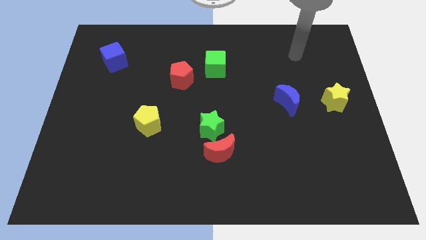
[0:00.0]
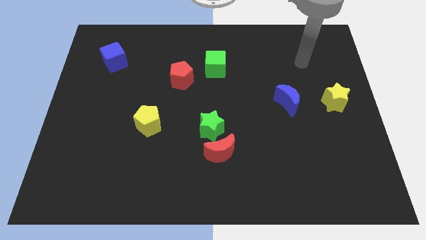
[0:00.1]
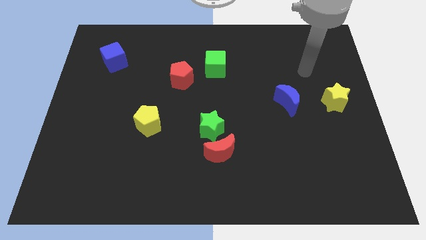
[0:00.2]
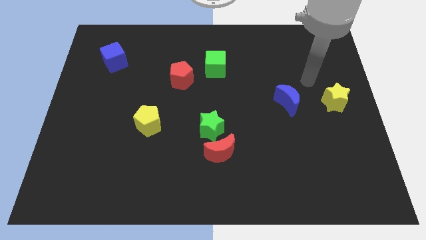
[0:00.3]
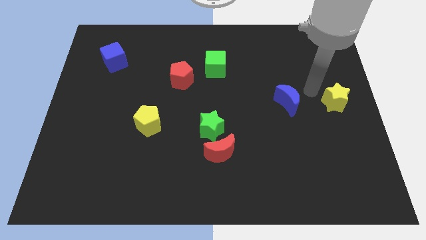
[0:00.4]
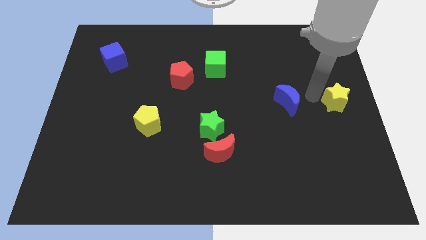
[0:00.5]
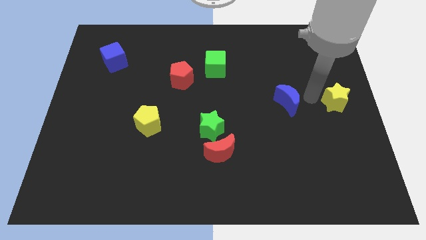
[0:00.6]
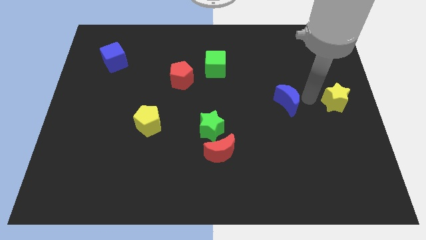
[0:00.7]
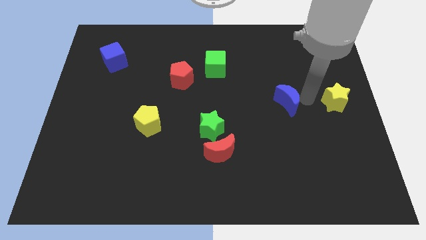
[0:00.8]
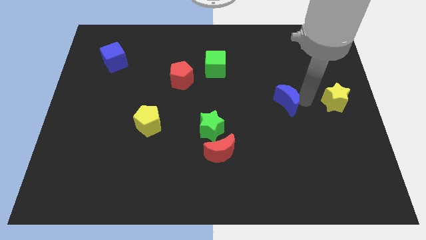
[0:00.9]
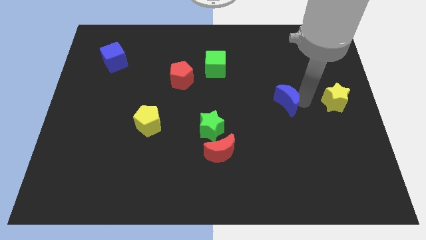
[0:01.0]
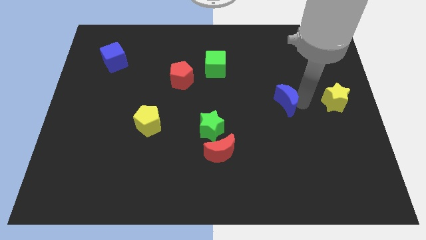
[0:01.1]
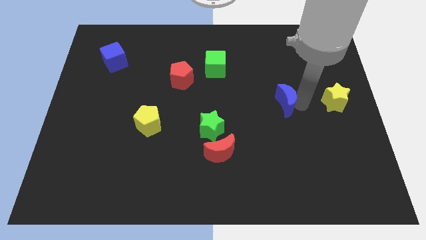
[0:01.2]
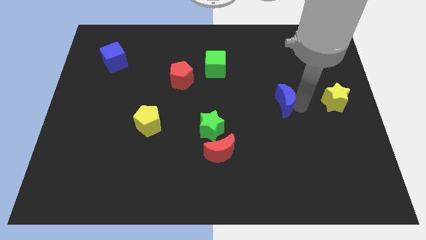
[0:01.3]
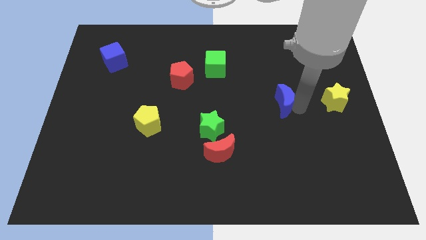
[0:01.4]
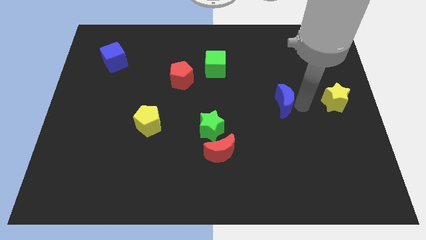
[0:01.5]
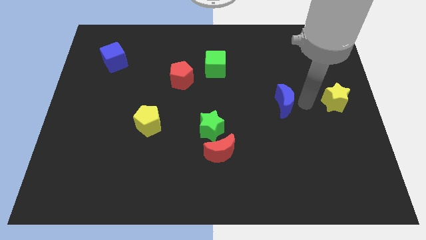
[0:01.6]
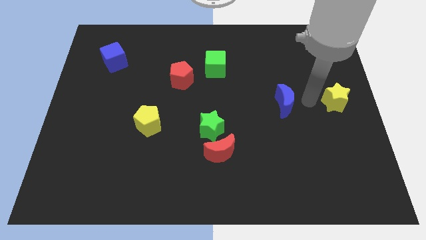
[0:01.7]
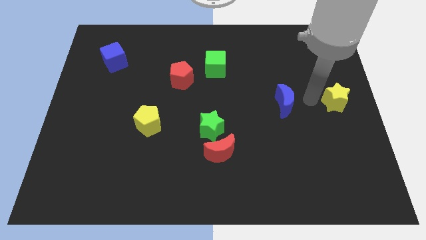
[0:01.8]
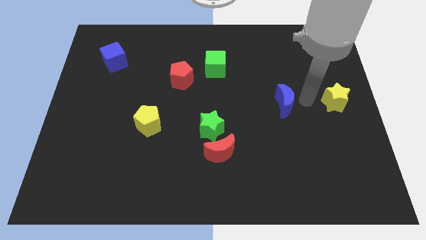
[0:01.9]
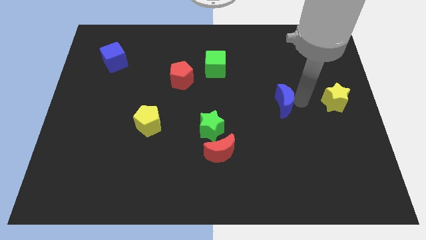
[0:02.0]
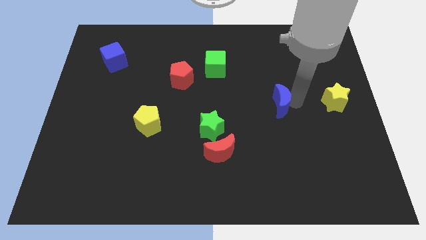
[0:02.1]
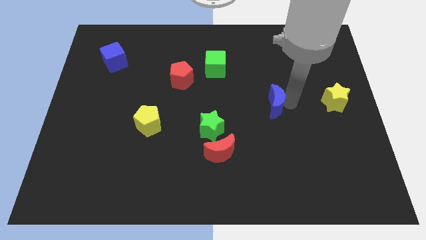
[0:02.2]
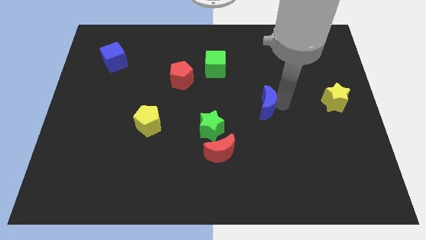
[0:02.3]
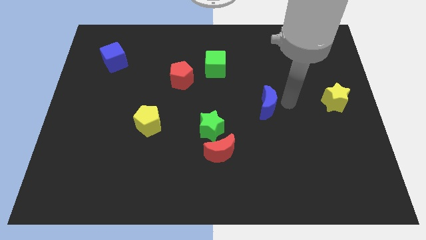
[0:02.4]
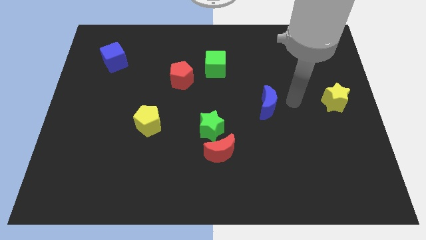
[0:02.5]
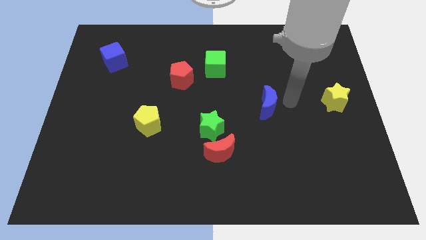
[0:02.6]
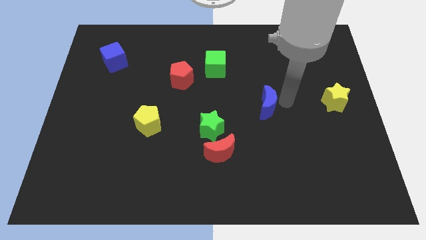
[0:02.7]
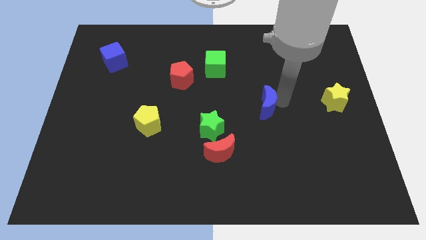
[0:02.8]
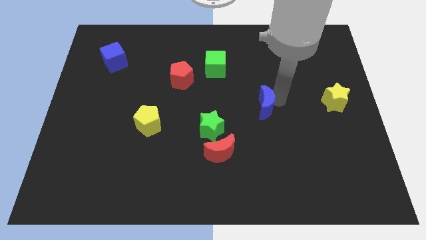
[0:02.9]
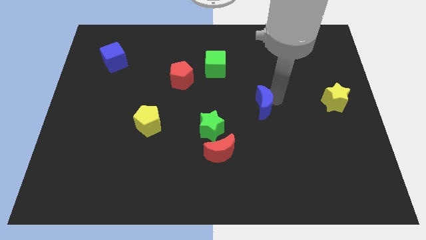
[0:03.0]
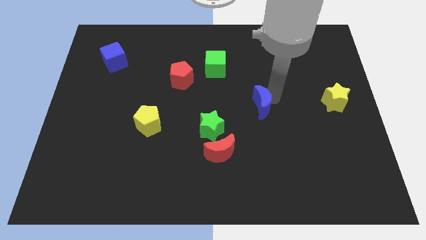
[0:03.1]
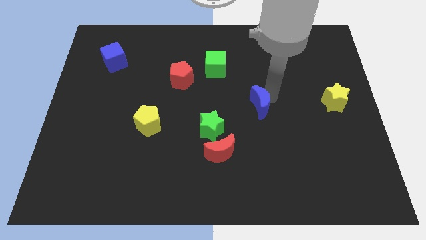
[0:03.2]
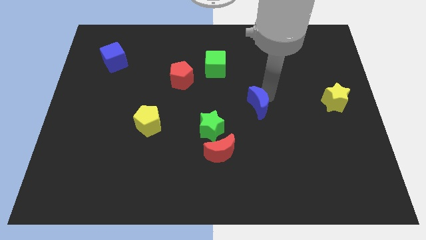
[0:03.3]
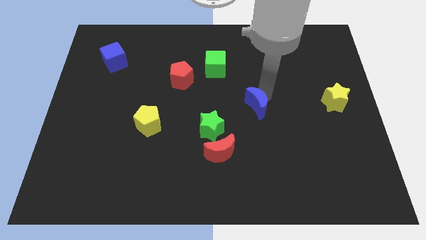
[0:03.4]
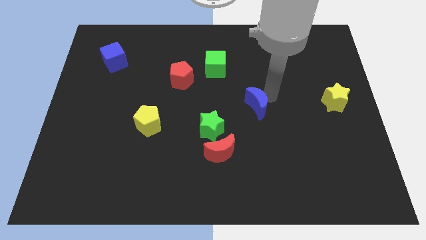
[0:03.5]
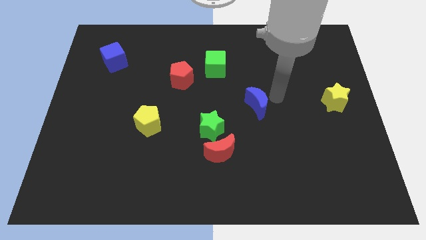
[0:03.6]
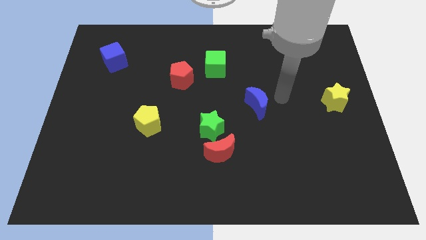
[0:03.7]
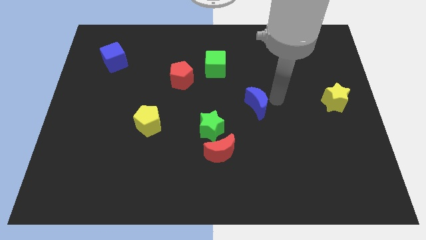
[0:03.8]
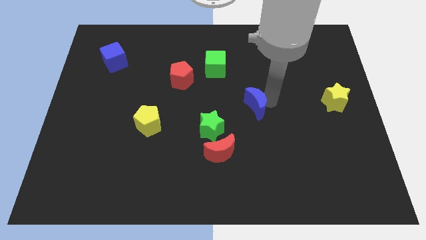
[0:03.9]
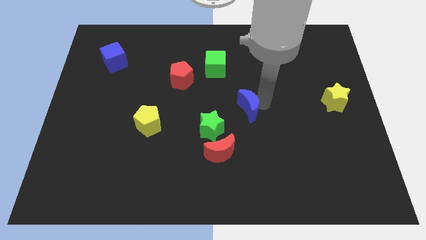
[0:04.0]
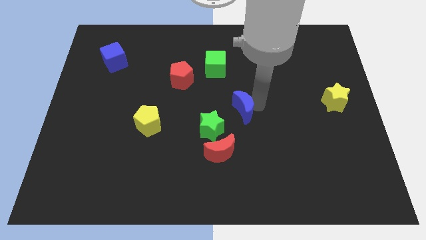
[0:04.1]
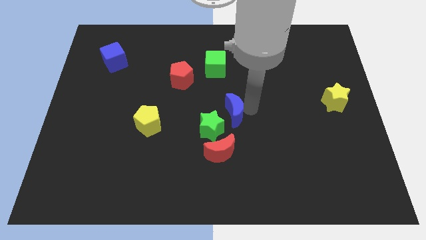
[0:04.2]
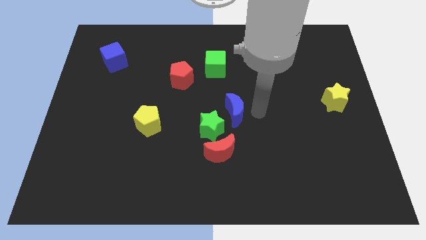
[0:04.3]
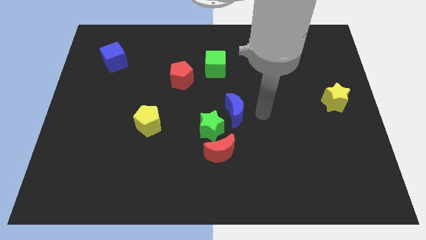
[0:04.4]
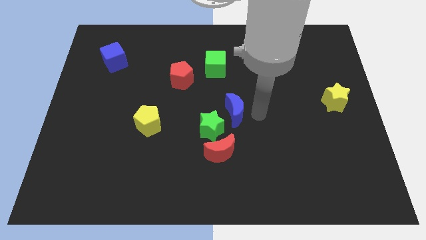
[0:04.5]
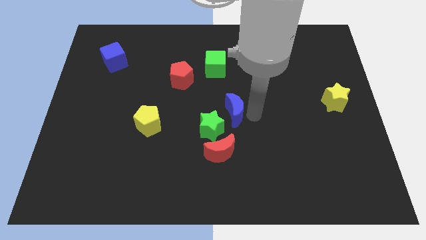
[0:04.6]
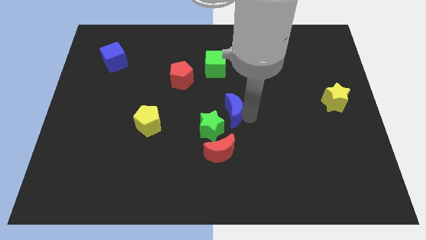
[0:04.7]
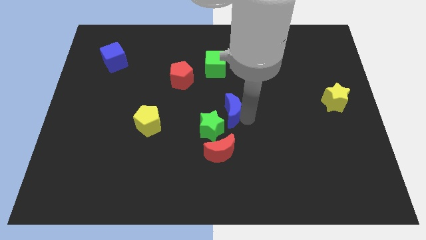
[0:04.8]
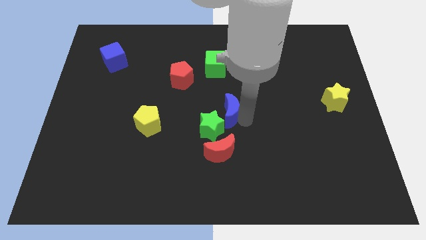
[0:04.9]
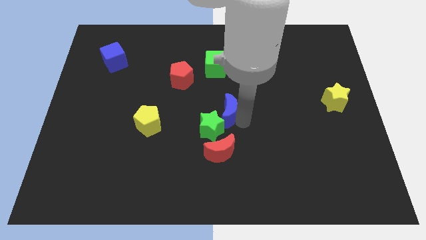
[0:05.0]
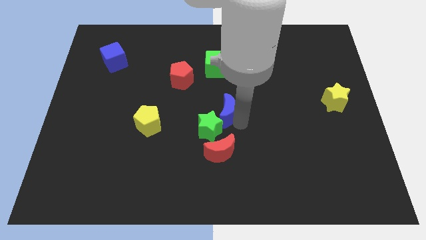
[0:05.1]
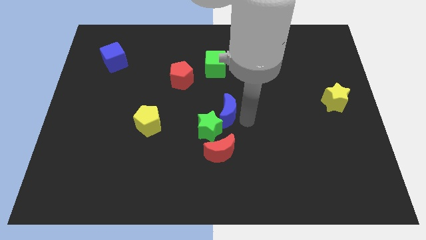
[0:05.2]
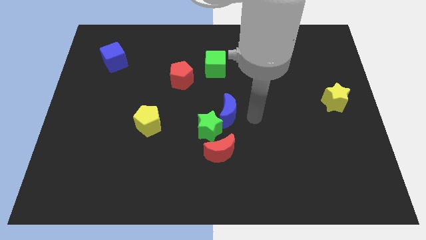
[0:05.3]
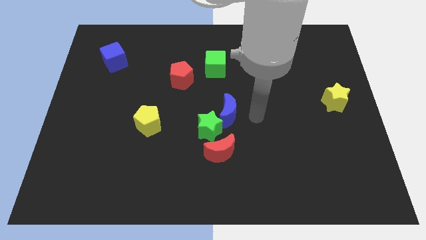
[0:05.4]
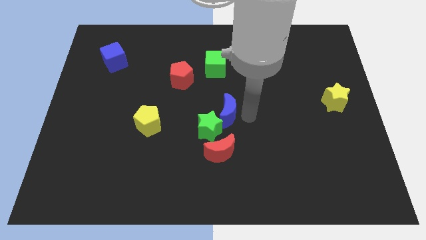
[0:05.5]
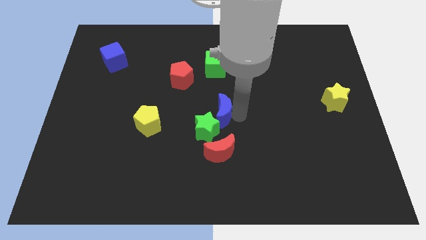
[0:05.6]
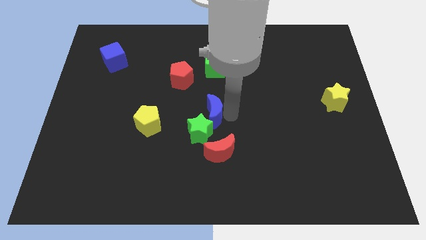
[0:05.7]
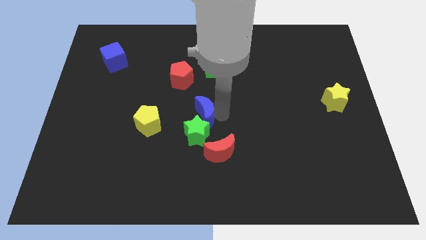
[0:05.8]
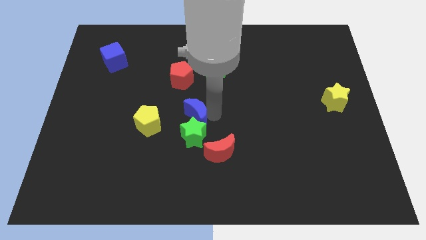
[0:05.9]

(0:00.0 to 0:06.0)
push the blue moon to the top left of the green star
